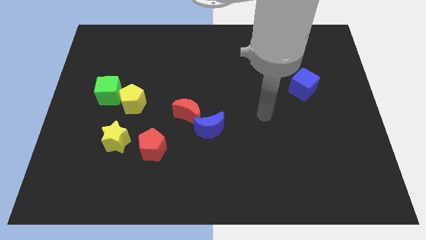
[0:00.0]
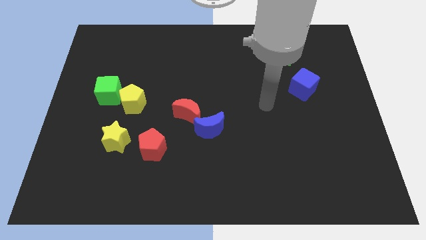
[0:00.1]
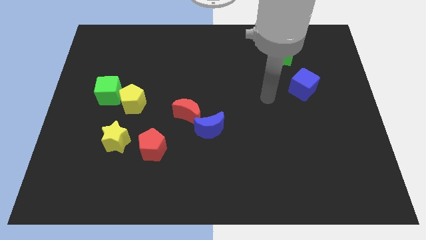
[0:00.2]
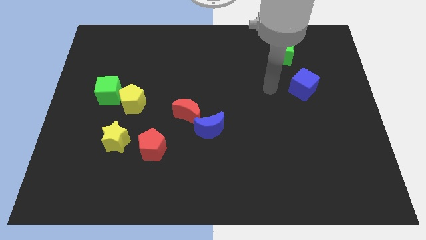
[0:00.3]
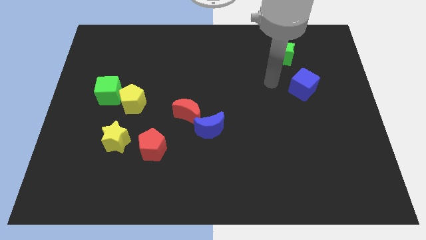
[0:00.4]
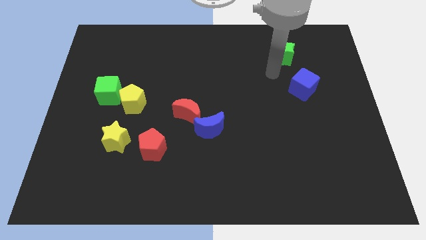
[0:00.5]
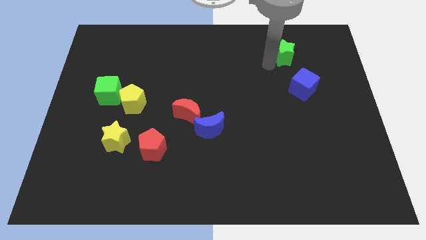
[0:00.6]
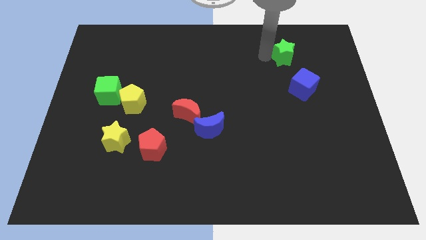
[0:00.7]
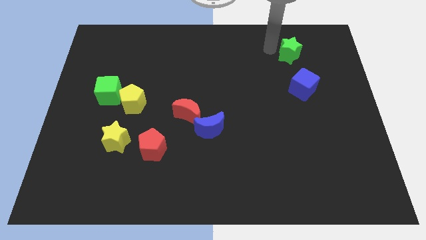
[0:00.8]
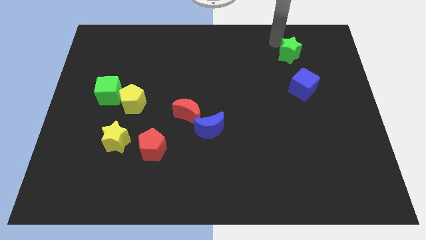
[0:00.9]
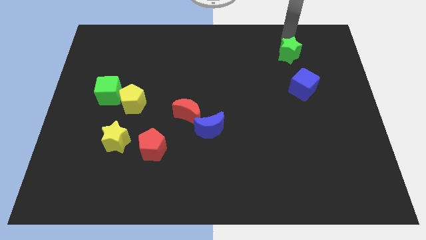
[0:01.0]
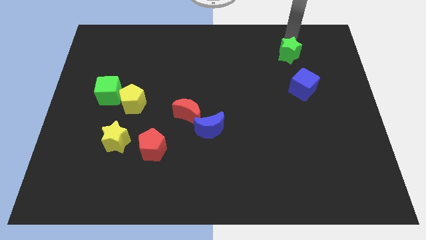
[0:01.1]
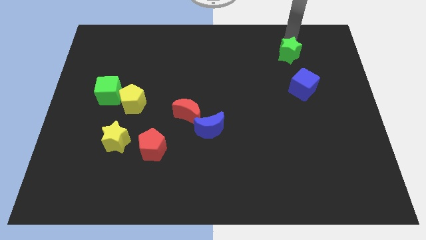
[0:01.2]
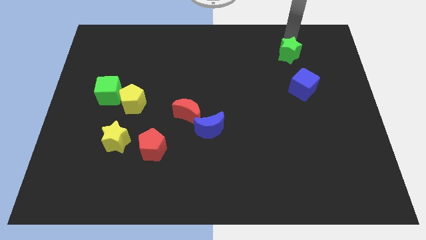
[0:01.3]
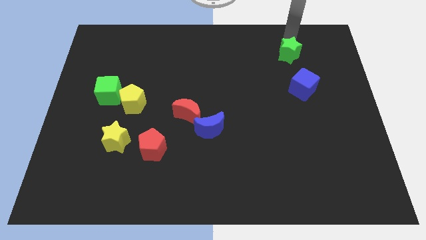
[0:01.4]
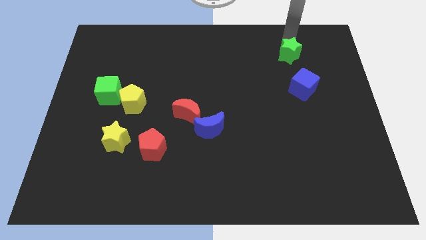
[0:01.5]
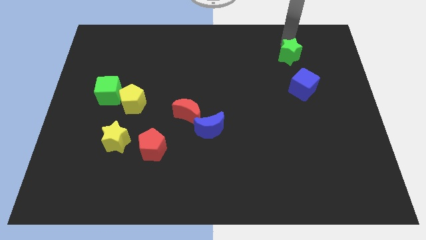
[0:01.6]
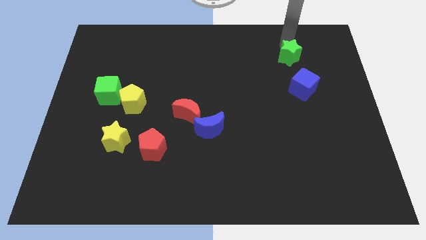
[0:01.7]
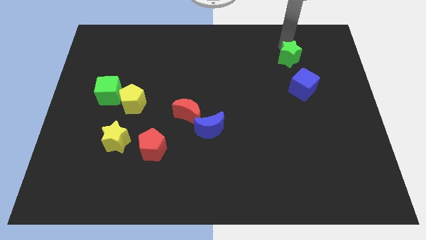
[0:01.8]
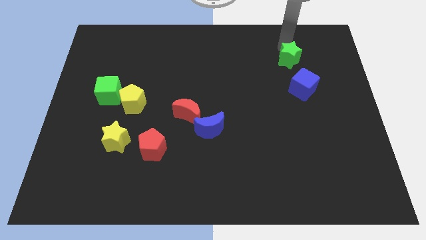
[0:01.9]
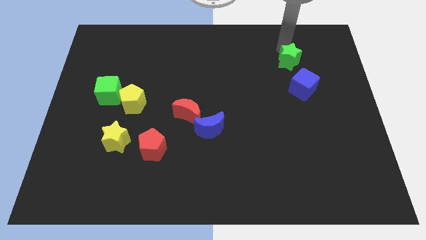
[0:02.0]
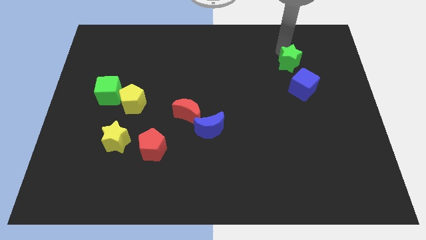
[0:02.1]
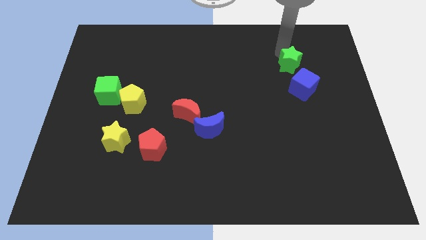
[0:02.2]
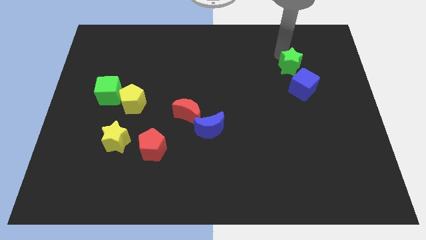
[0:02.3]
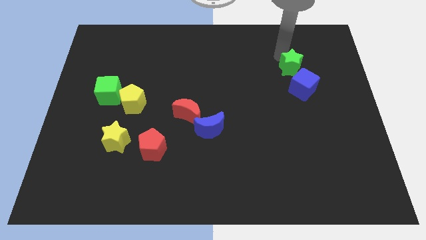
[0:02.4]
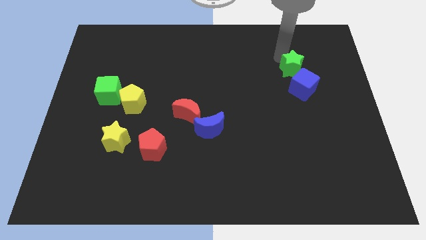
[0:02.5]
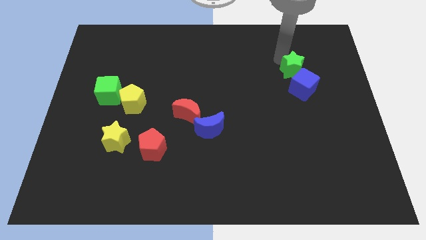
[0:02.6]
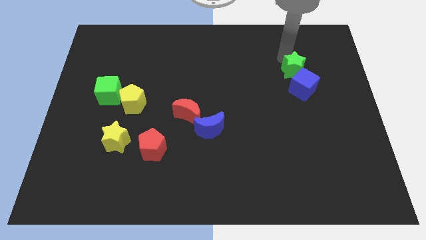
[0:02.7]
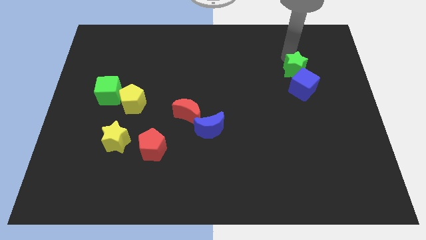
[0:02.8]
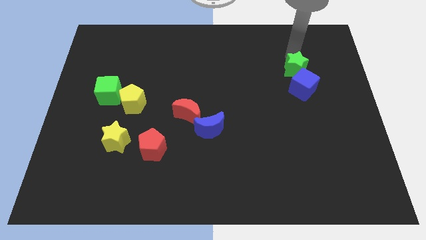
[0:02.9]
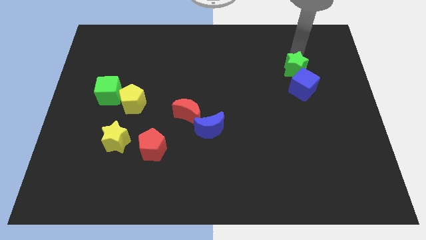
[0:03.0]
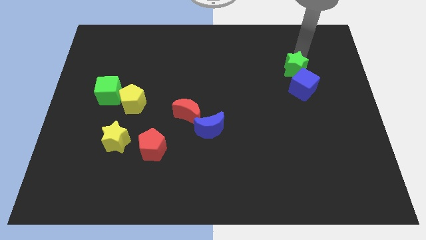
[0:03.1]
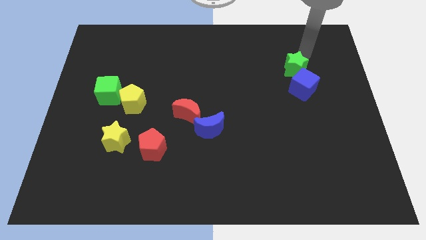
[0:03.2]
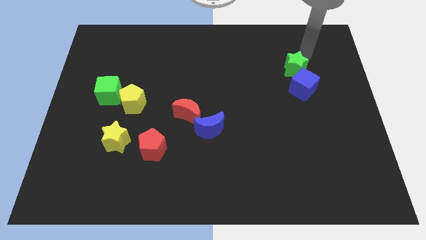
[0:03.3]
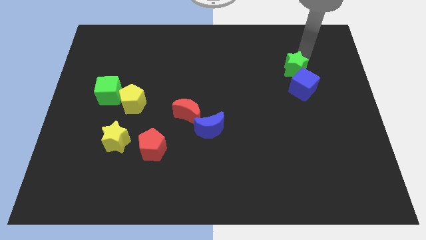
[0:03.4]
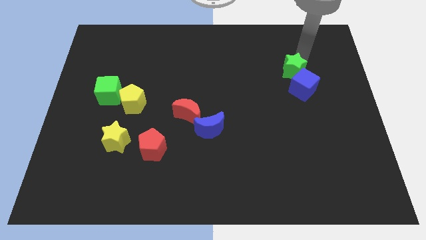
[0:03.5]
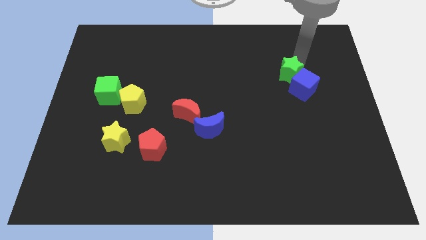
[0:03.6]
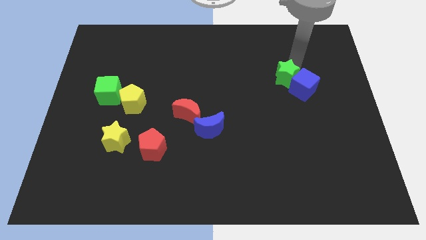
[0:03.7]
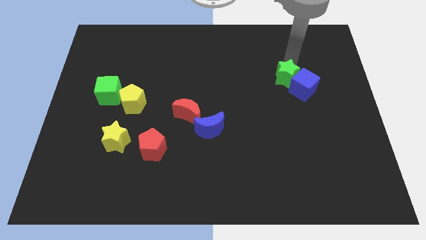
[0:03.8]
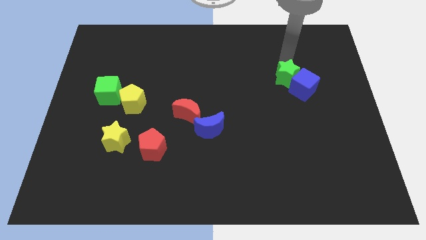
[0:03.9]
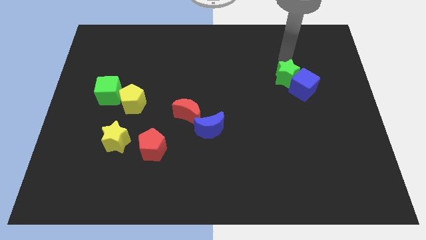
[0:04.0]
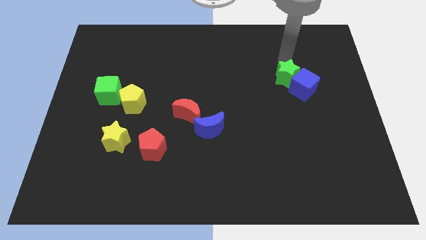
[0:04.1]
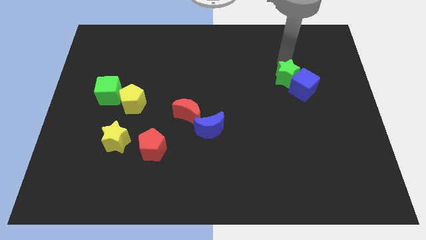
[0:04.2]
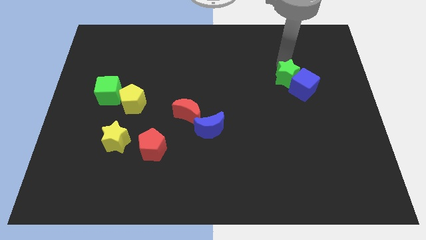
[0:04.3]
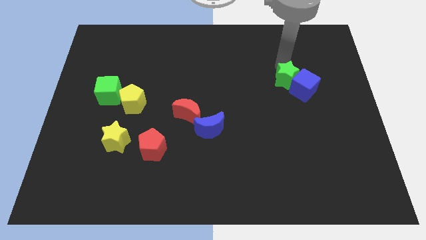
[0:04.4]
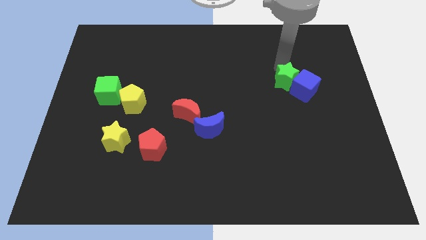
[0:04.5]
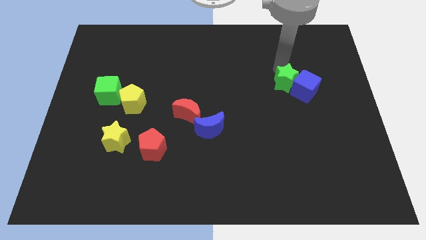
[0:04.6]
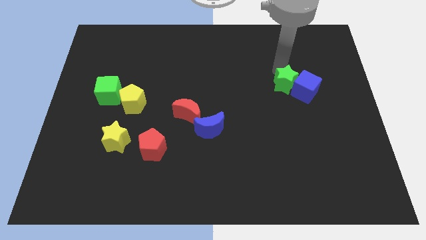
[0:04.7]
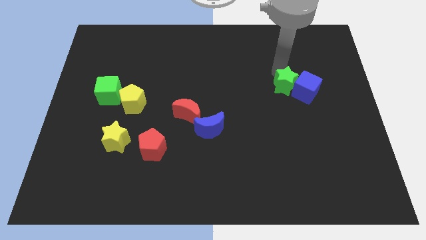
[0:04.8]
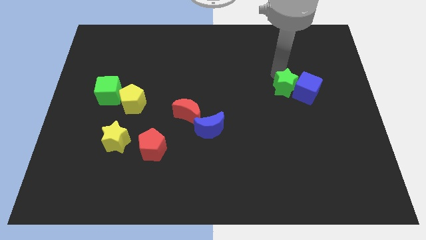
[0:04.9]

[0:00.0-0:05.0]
push the green star to the bottom left side of the blue cube

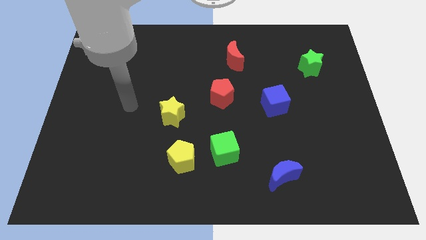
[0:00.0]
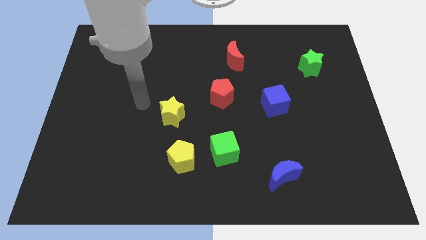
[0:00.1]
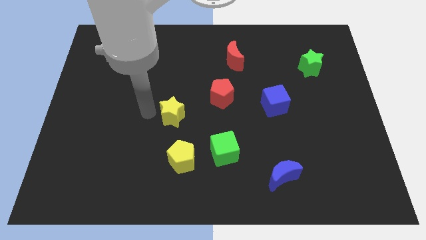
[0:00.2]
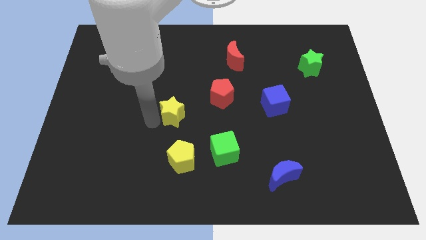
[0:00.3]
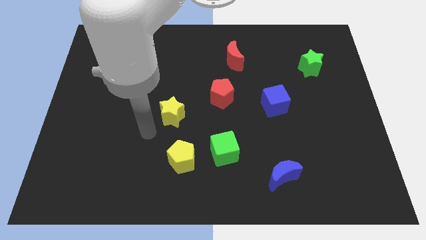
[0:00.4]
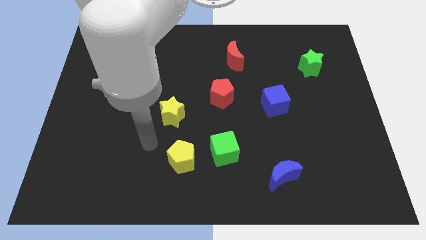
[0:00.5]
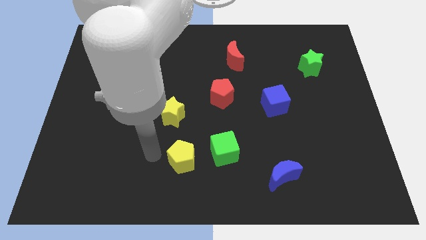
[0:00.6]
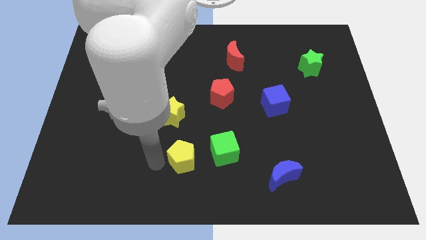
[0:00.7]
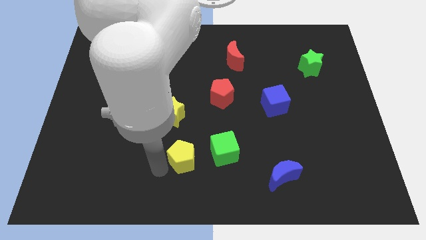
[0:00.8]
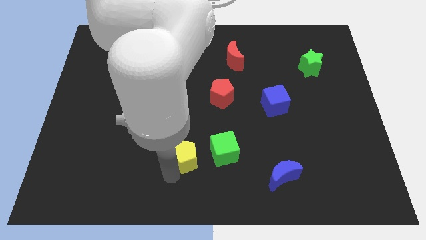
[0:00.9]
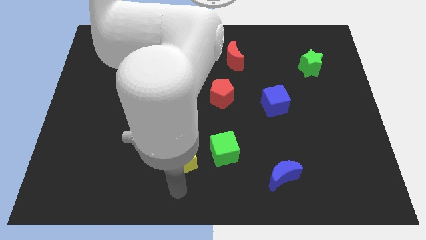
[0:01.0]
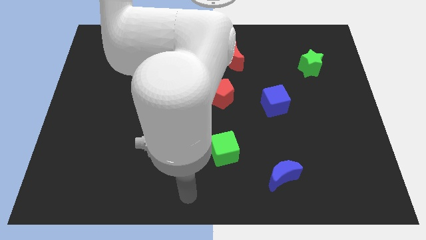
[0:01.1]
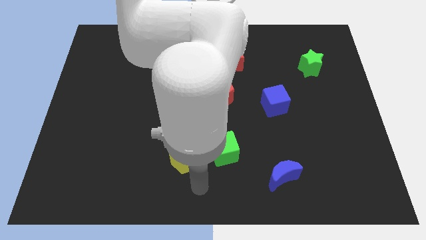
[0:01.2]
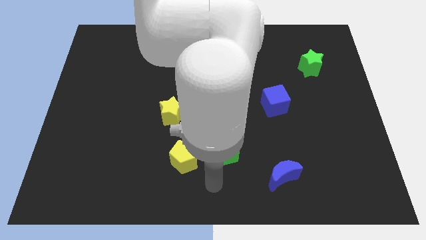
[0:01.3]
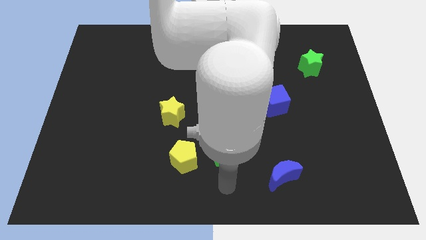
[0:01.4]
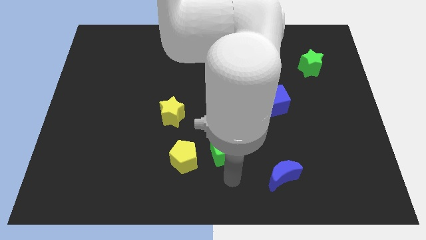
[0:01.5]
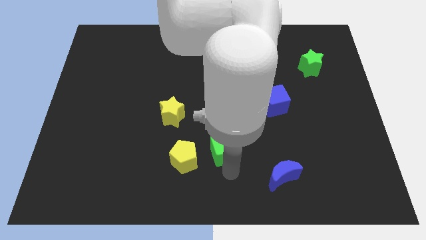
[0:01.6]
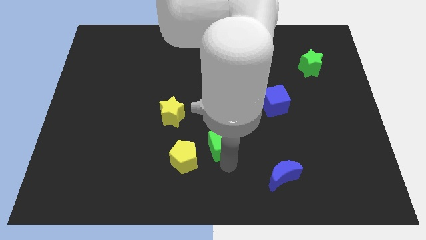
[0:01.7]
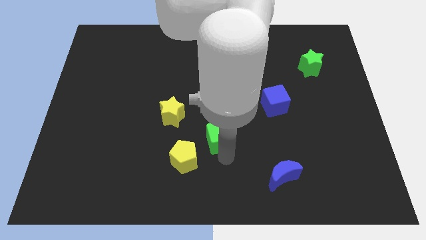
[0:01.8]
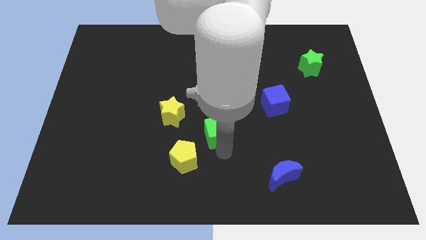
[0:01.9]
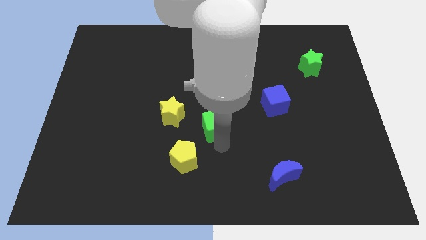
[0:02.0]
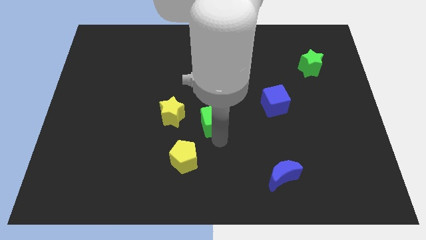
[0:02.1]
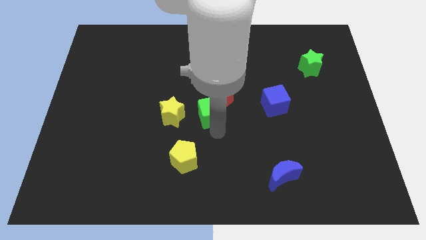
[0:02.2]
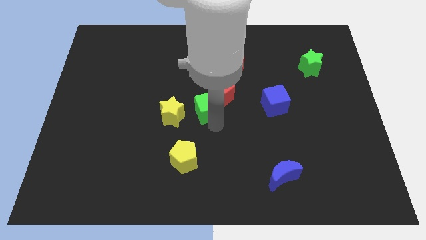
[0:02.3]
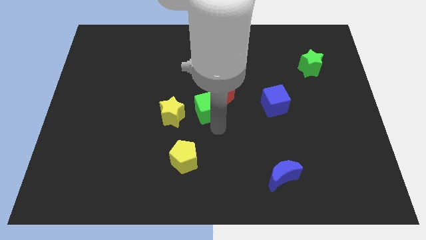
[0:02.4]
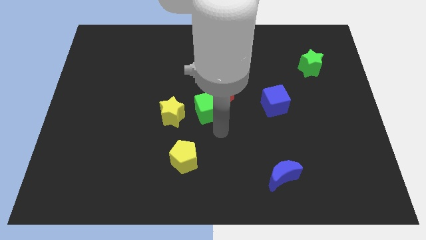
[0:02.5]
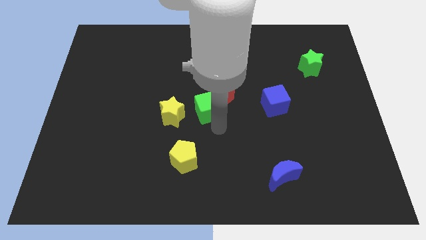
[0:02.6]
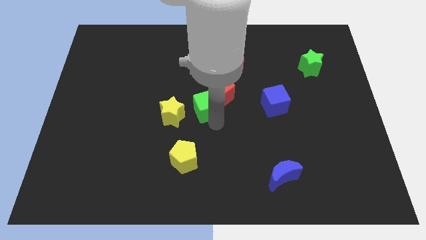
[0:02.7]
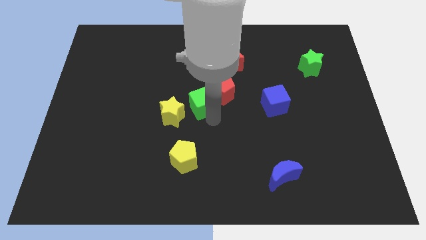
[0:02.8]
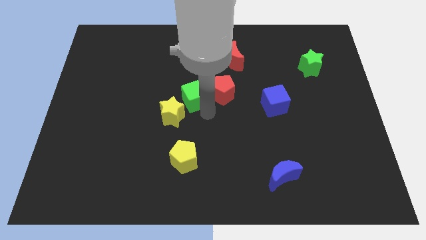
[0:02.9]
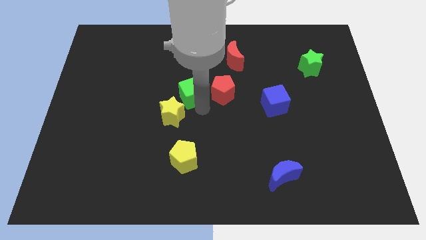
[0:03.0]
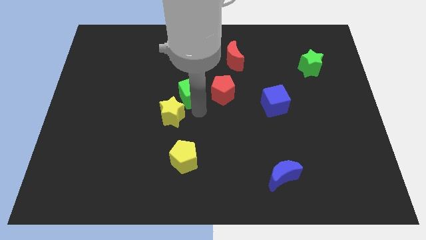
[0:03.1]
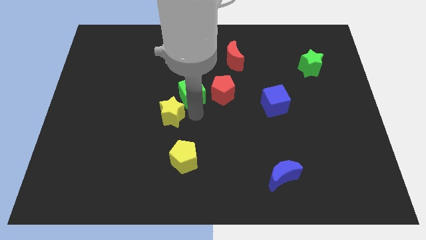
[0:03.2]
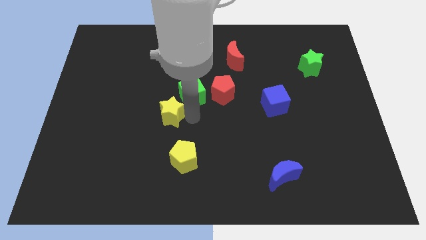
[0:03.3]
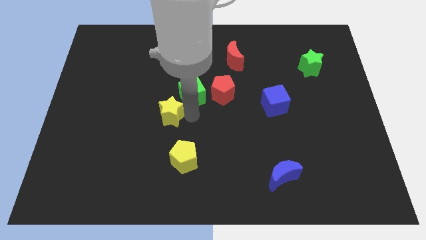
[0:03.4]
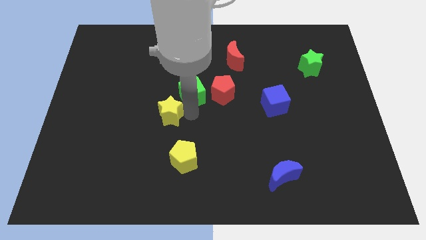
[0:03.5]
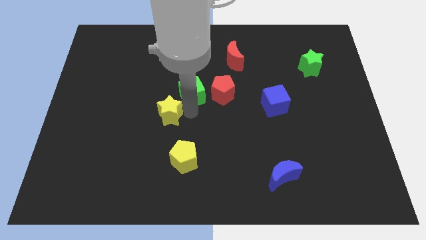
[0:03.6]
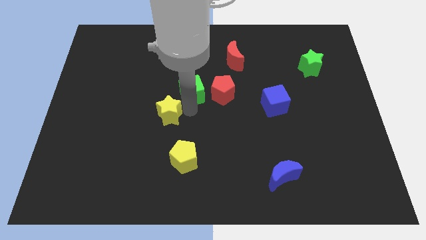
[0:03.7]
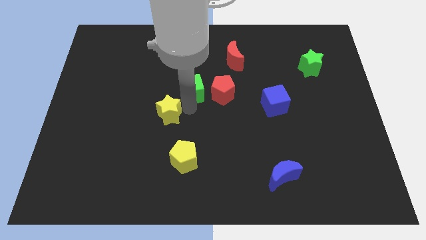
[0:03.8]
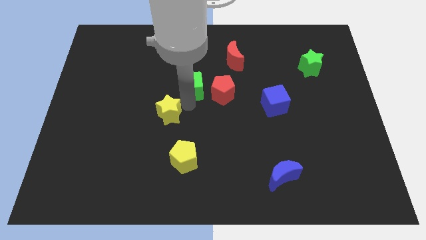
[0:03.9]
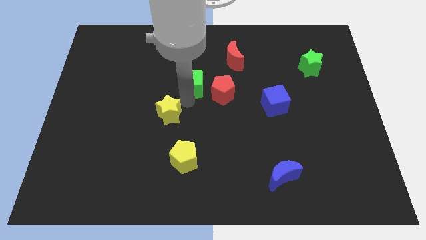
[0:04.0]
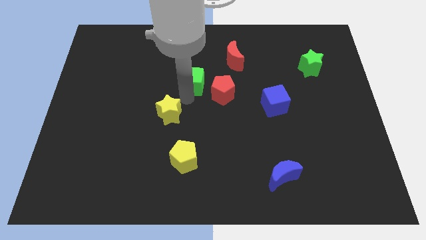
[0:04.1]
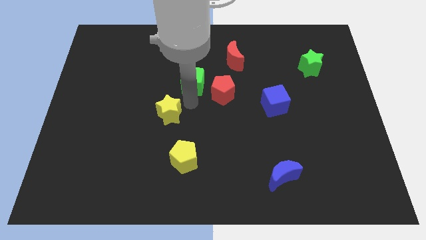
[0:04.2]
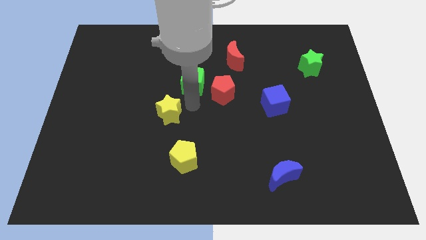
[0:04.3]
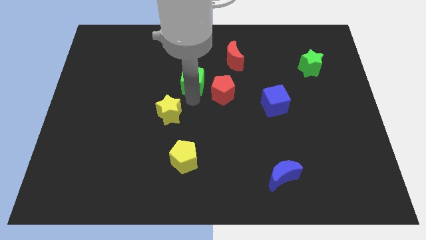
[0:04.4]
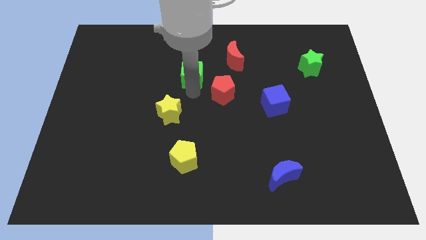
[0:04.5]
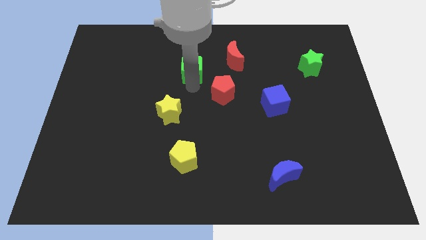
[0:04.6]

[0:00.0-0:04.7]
push the green cube to the left of the red moon
